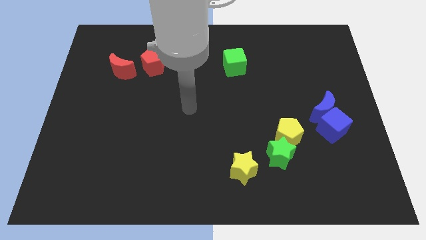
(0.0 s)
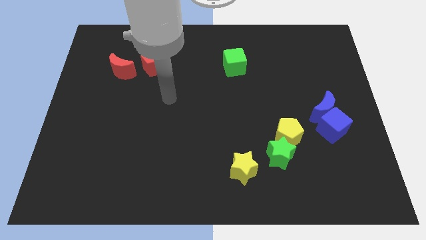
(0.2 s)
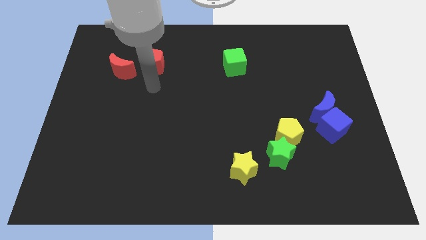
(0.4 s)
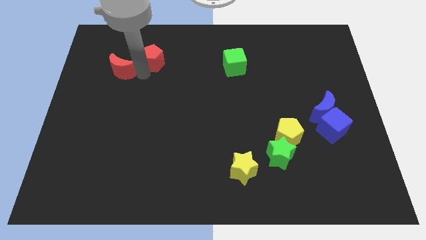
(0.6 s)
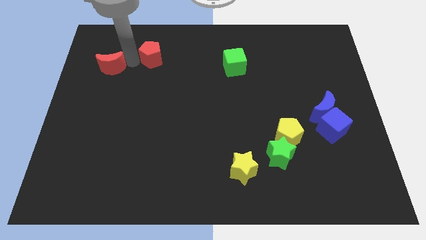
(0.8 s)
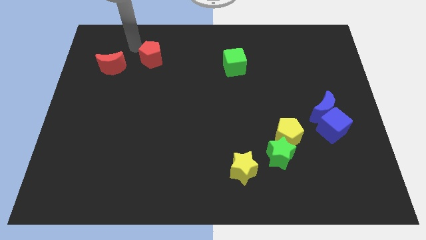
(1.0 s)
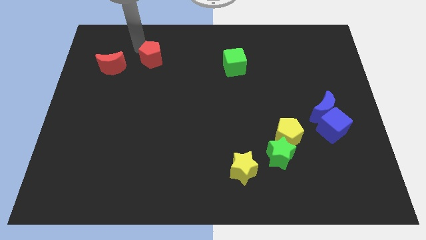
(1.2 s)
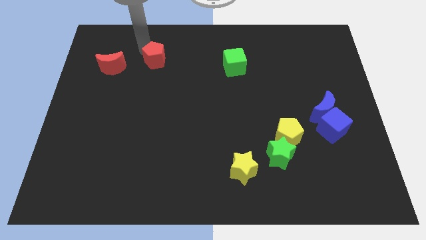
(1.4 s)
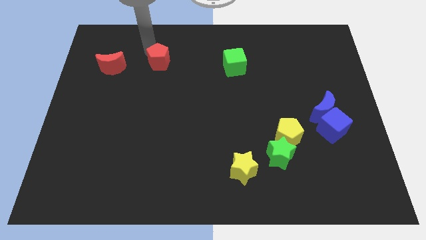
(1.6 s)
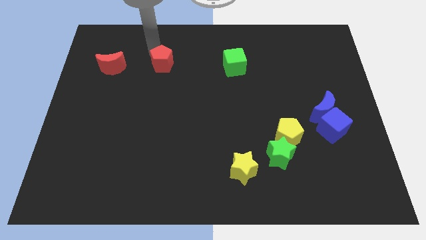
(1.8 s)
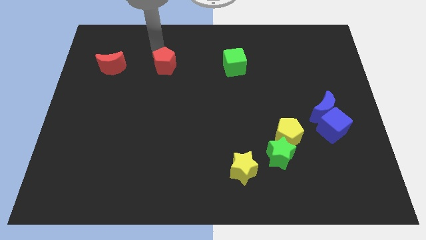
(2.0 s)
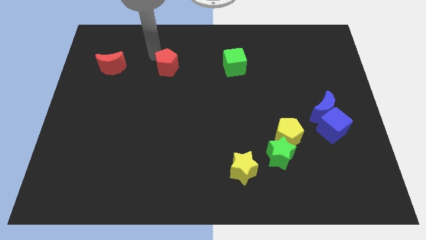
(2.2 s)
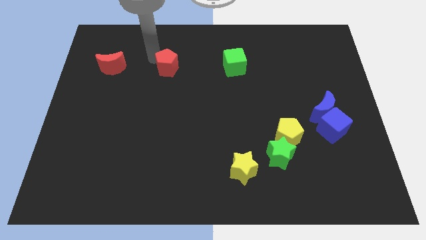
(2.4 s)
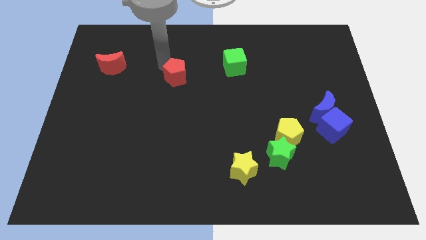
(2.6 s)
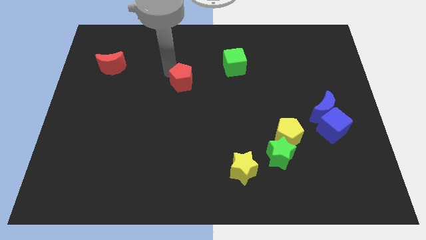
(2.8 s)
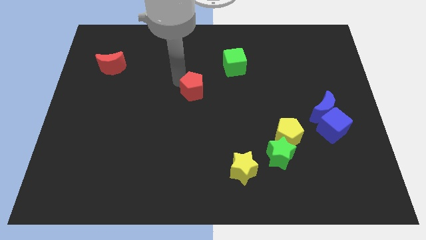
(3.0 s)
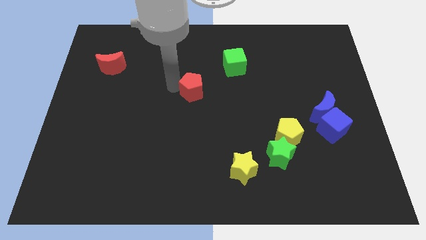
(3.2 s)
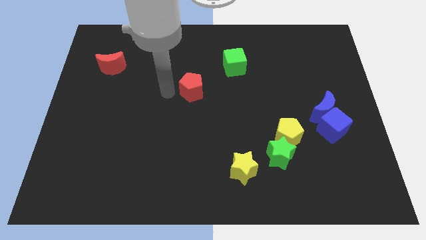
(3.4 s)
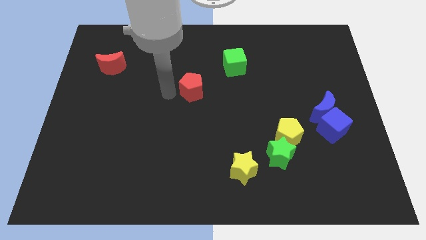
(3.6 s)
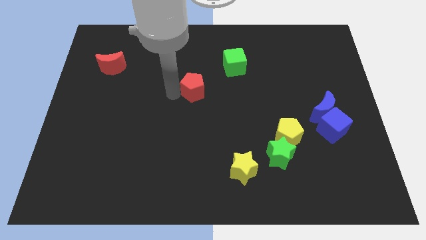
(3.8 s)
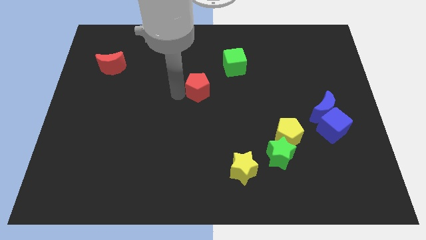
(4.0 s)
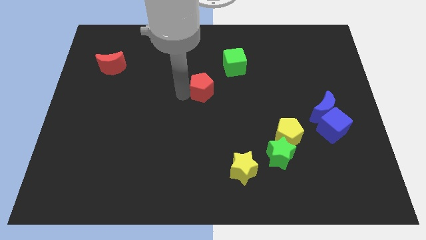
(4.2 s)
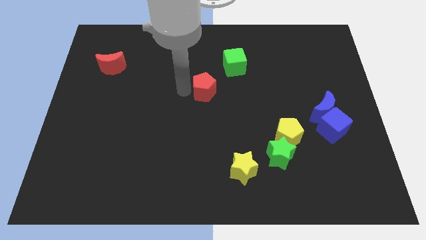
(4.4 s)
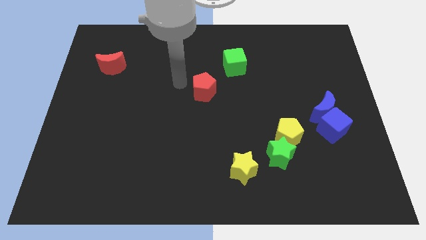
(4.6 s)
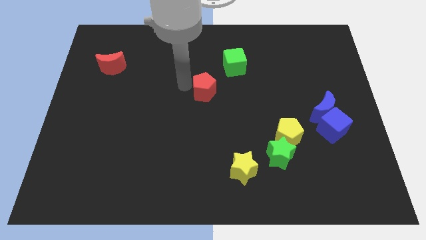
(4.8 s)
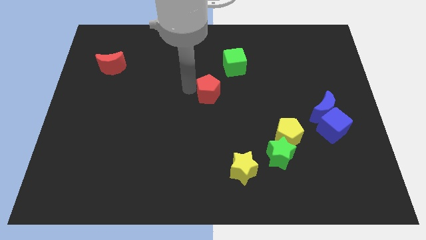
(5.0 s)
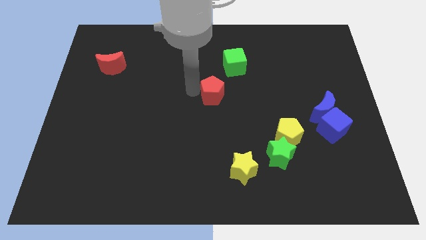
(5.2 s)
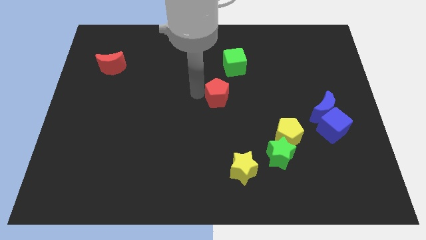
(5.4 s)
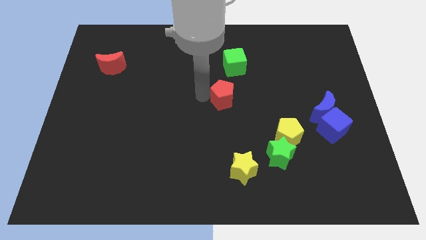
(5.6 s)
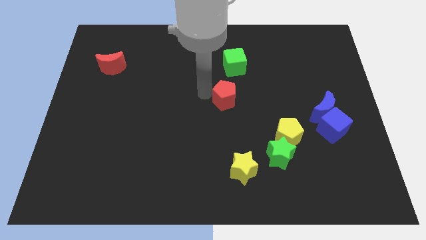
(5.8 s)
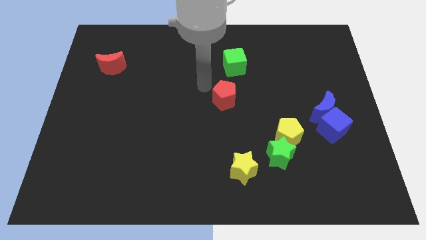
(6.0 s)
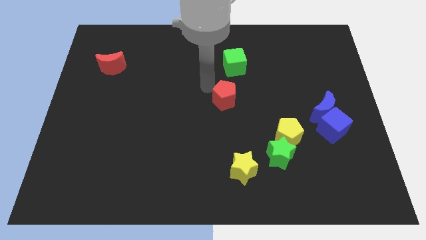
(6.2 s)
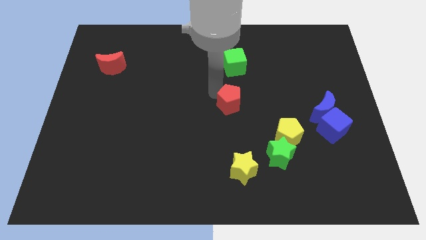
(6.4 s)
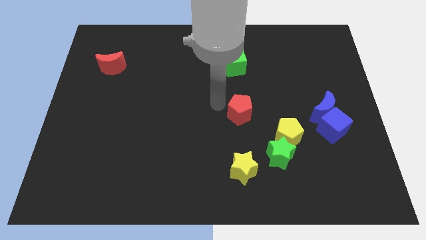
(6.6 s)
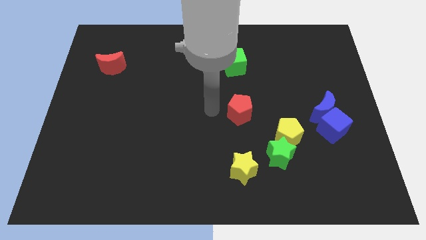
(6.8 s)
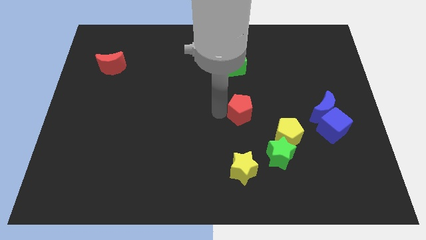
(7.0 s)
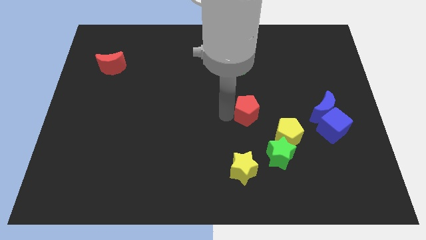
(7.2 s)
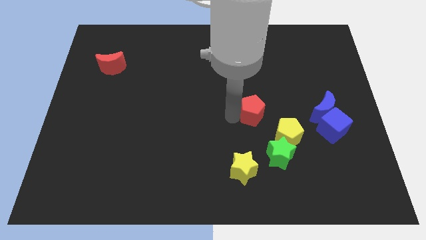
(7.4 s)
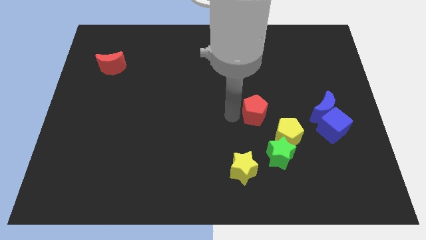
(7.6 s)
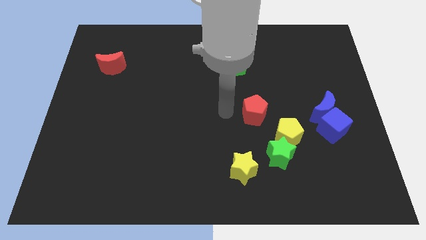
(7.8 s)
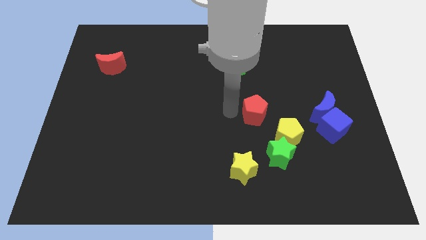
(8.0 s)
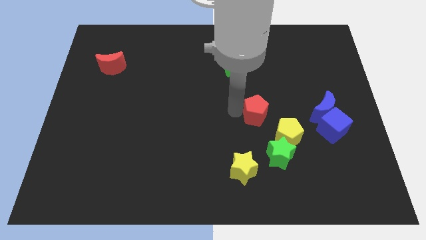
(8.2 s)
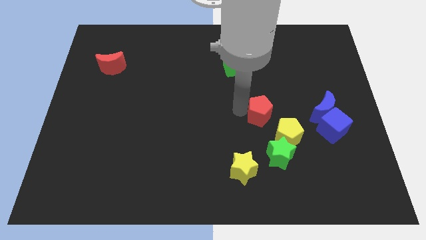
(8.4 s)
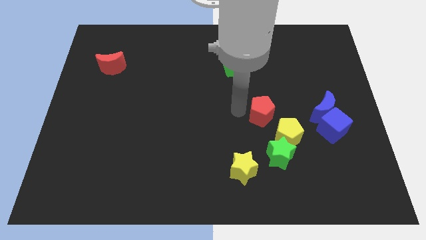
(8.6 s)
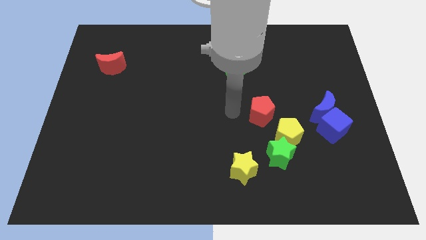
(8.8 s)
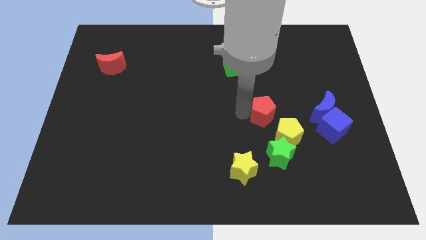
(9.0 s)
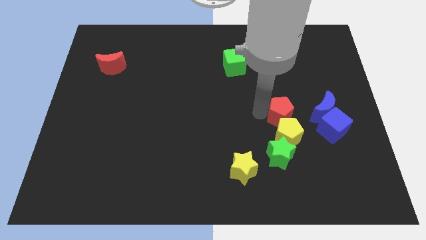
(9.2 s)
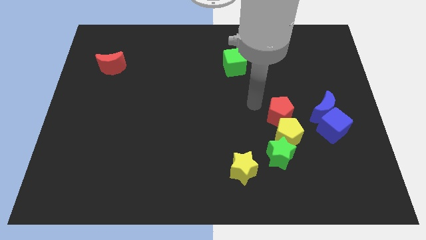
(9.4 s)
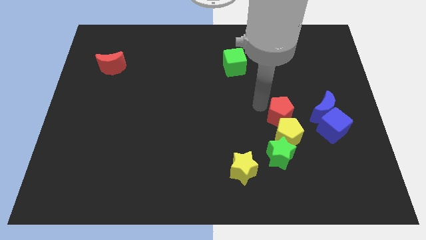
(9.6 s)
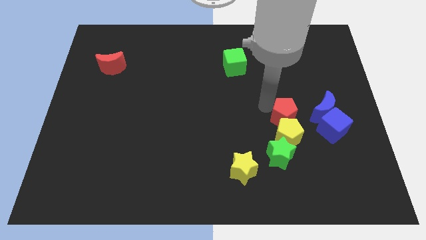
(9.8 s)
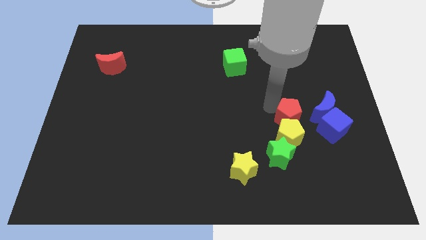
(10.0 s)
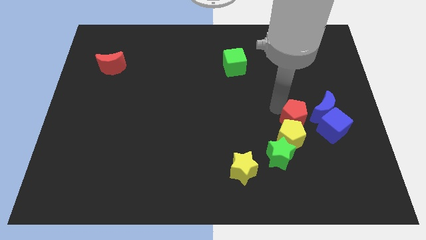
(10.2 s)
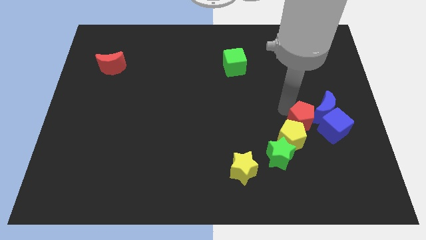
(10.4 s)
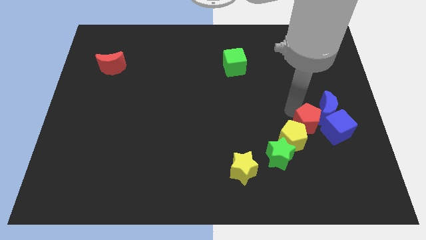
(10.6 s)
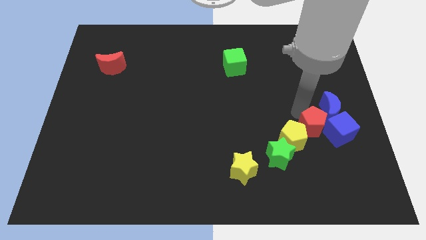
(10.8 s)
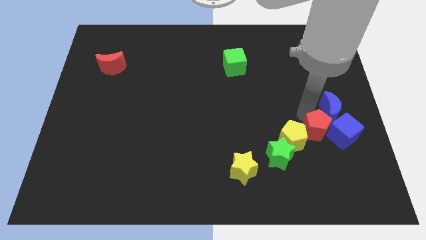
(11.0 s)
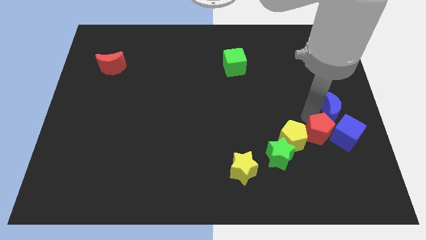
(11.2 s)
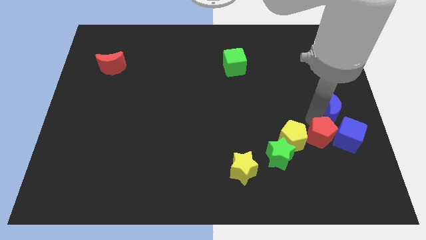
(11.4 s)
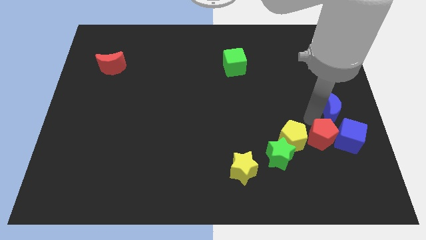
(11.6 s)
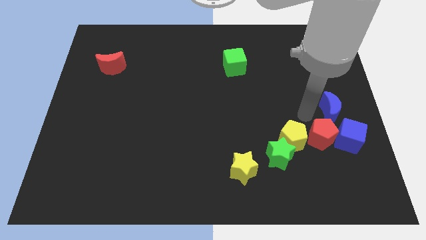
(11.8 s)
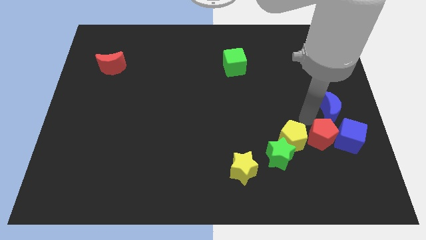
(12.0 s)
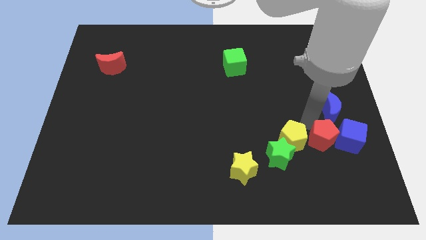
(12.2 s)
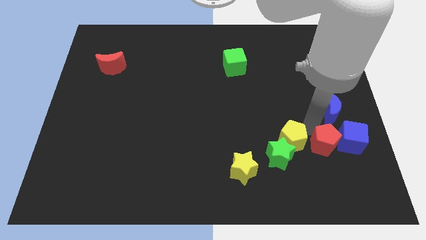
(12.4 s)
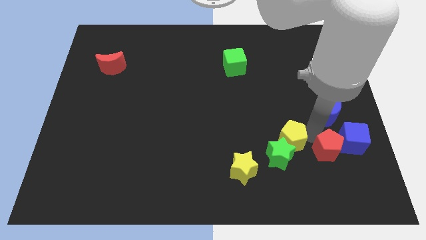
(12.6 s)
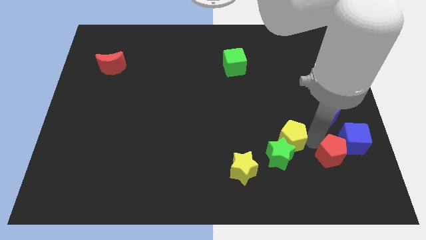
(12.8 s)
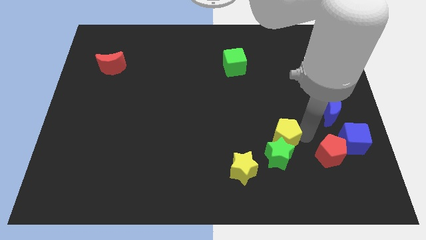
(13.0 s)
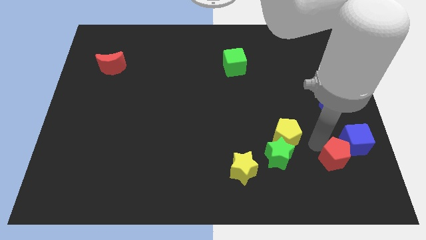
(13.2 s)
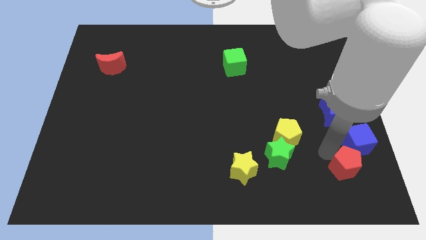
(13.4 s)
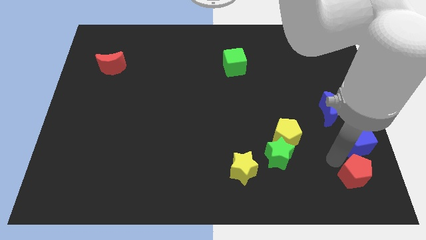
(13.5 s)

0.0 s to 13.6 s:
put the red pentagon to the lower right corner
